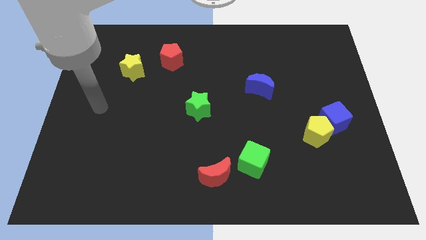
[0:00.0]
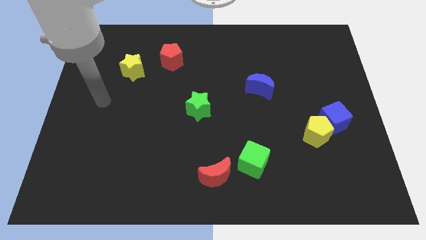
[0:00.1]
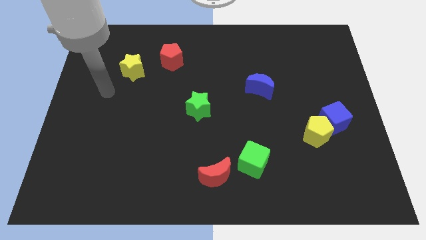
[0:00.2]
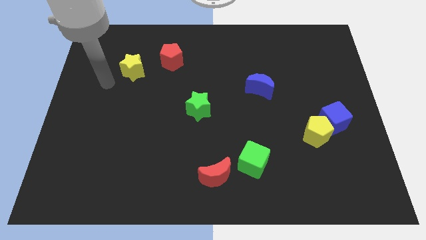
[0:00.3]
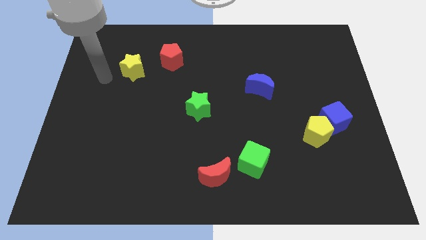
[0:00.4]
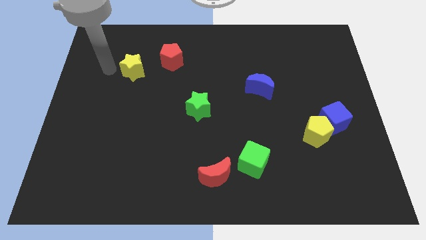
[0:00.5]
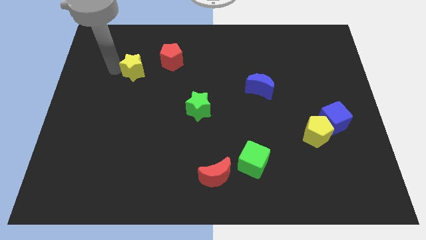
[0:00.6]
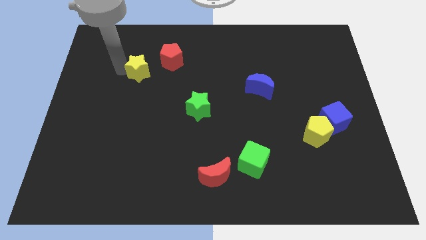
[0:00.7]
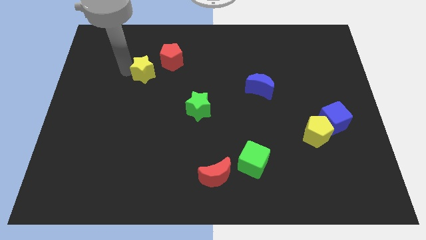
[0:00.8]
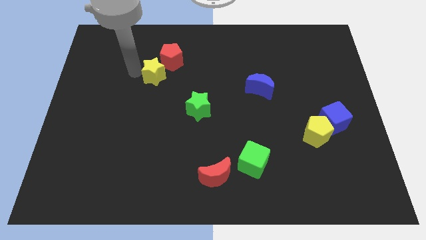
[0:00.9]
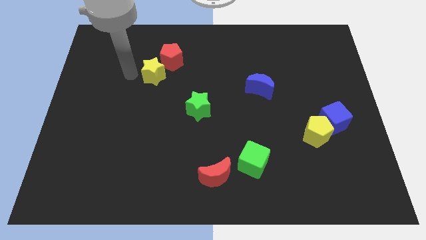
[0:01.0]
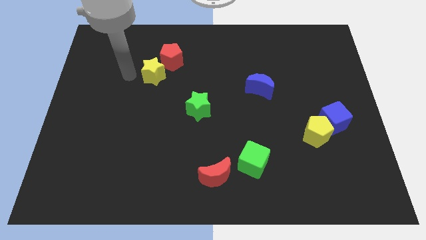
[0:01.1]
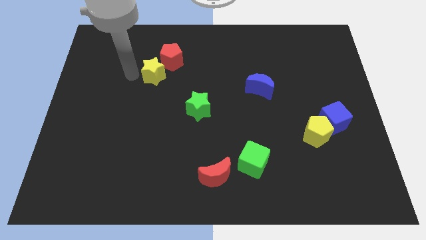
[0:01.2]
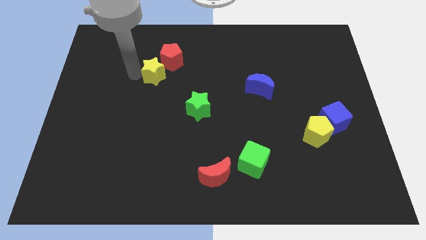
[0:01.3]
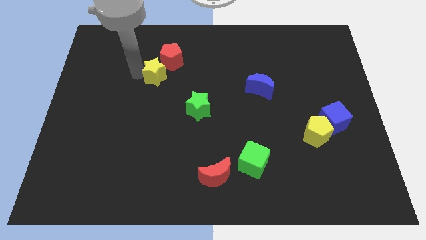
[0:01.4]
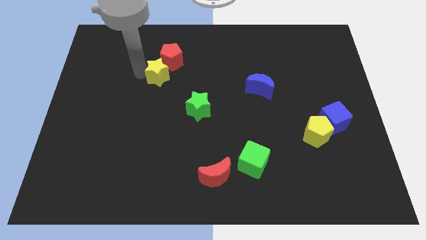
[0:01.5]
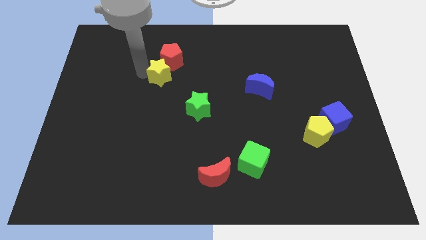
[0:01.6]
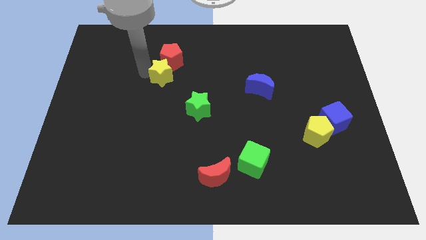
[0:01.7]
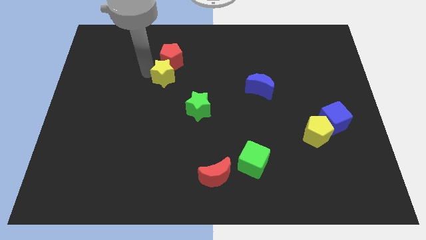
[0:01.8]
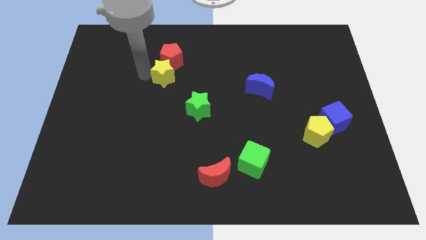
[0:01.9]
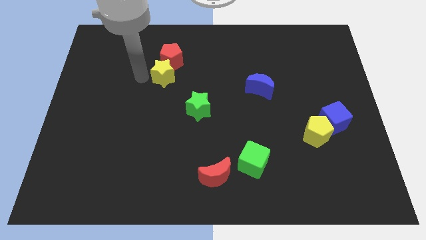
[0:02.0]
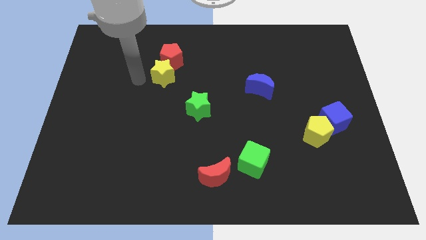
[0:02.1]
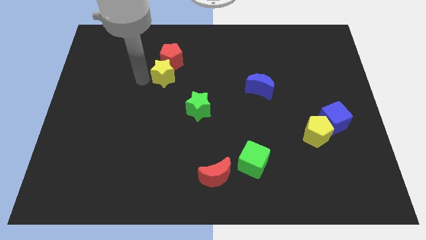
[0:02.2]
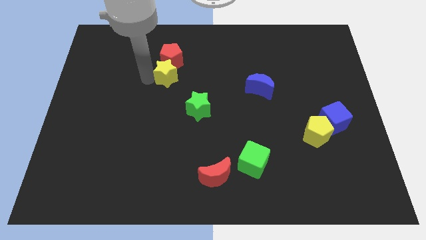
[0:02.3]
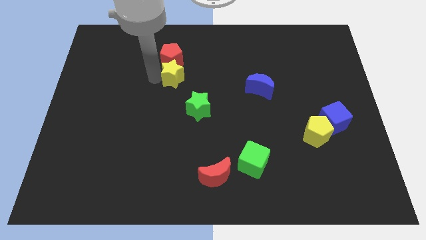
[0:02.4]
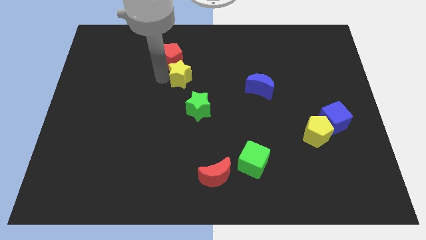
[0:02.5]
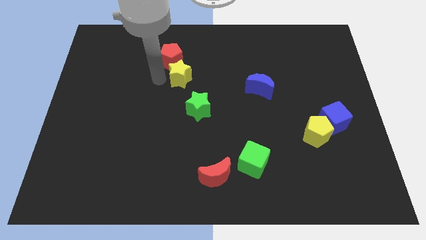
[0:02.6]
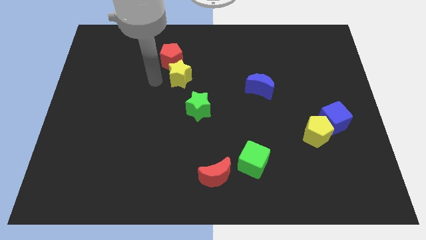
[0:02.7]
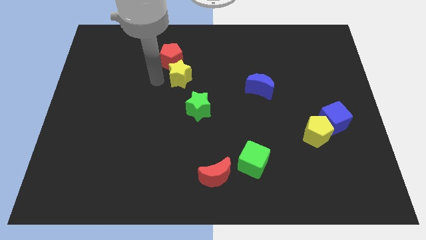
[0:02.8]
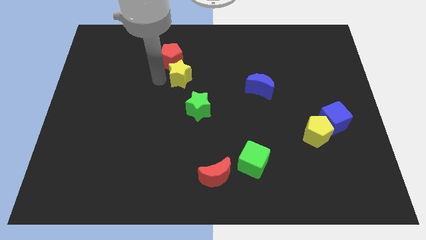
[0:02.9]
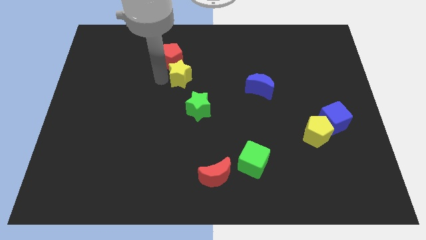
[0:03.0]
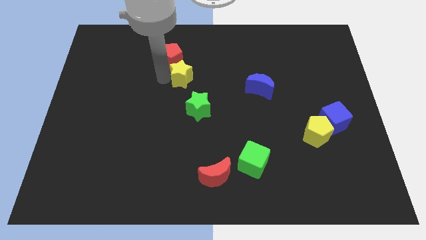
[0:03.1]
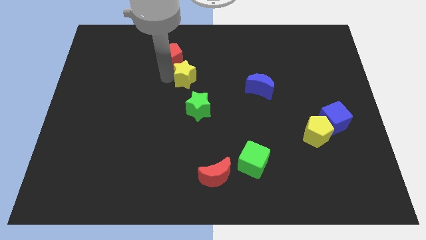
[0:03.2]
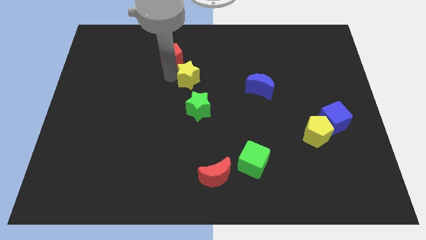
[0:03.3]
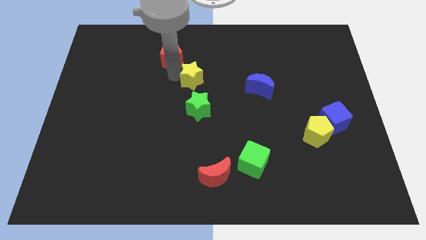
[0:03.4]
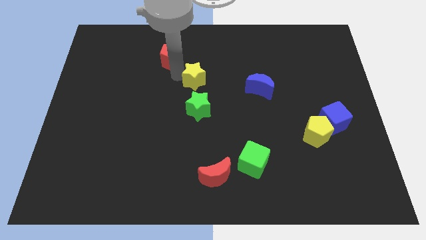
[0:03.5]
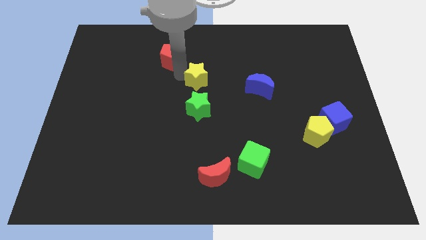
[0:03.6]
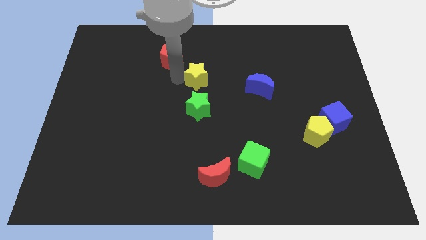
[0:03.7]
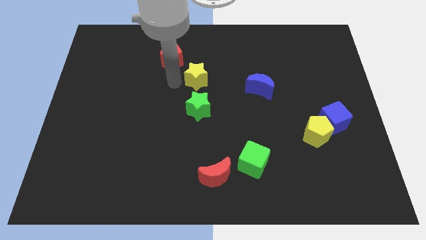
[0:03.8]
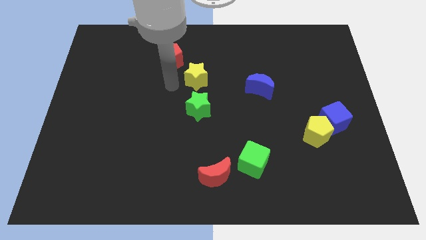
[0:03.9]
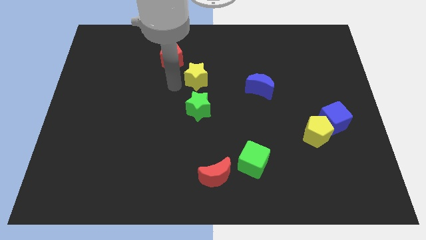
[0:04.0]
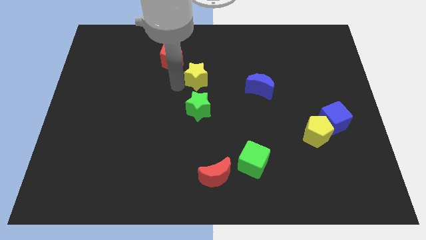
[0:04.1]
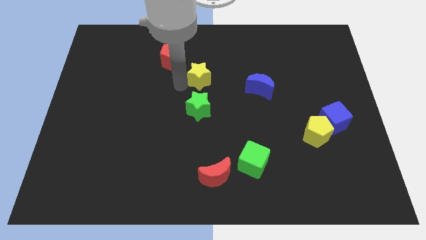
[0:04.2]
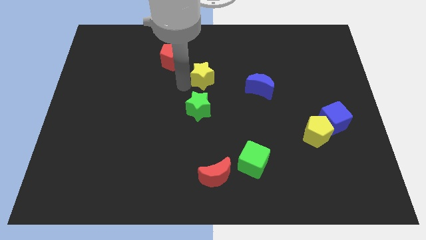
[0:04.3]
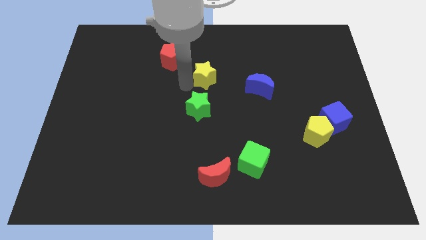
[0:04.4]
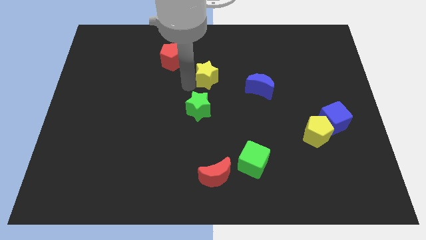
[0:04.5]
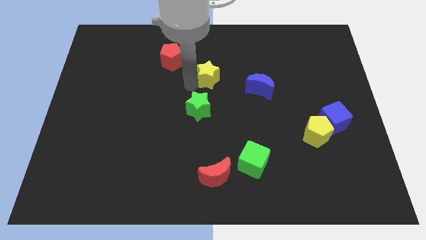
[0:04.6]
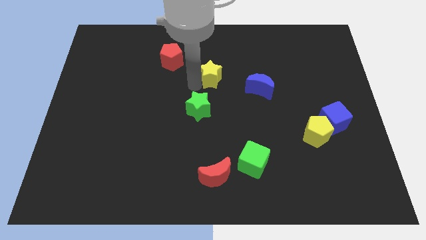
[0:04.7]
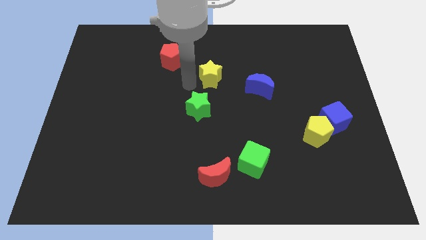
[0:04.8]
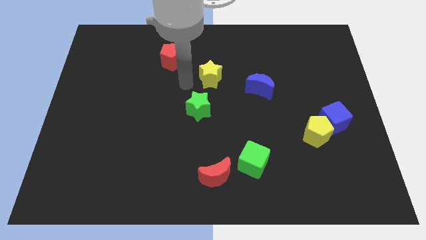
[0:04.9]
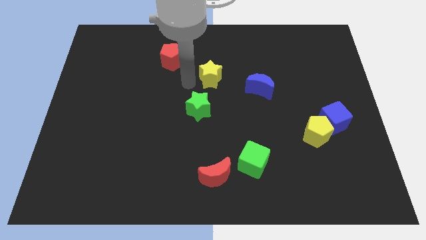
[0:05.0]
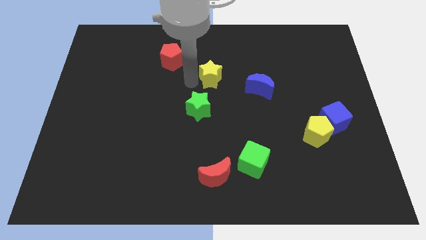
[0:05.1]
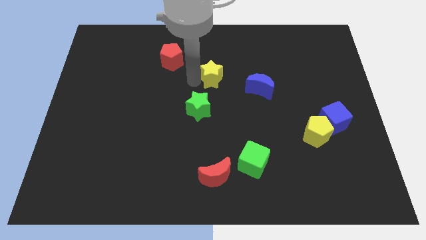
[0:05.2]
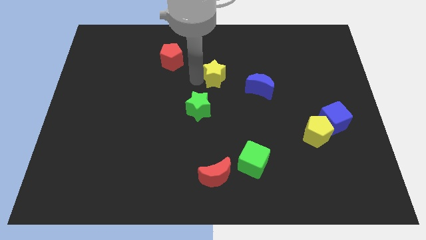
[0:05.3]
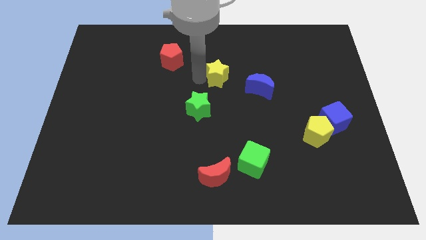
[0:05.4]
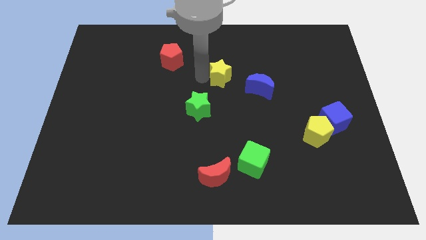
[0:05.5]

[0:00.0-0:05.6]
move the yellow star diagonally up and to the left of the blue moon

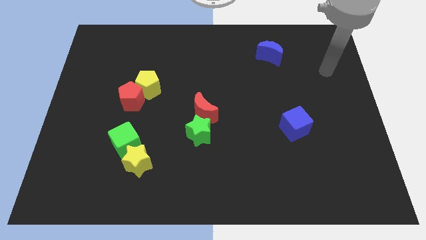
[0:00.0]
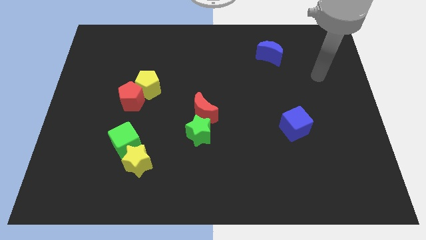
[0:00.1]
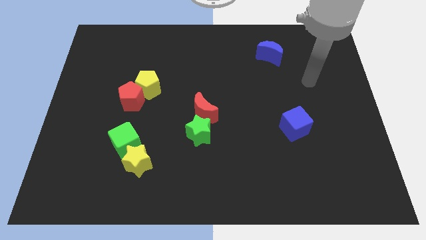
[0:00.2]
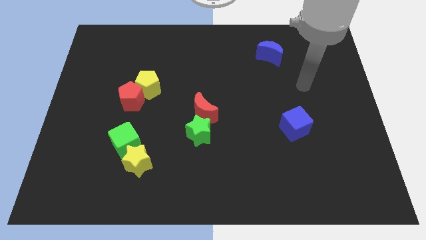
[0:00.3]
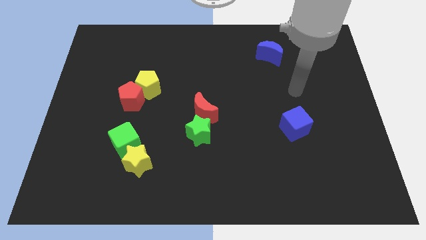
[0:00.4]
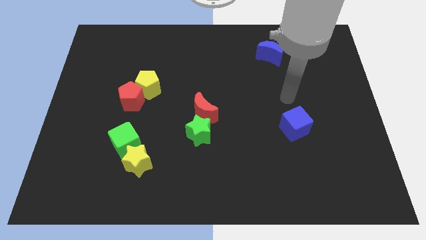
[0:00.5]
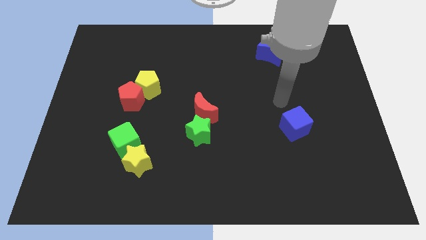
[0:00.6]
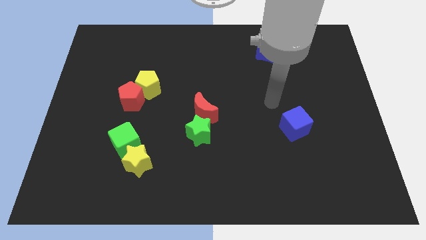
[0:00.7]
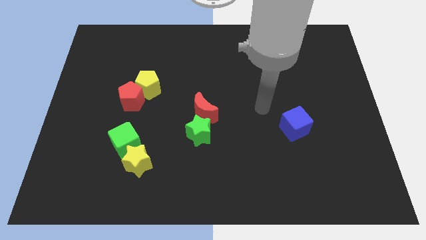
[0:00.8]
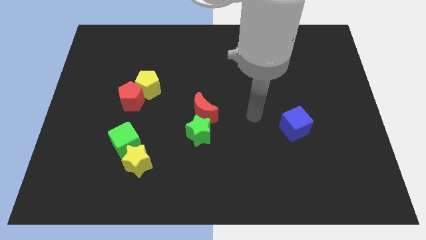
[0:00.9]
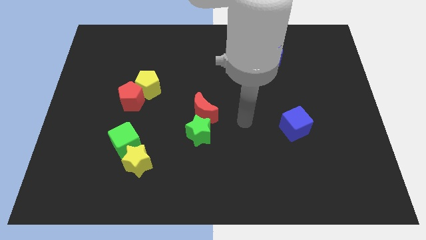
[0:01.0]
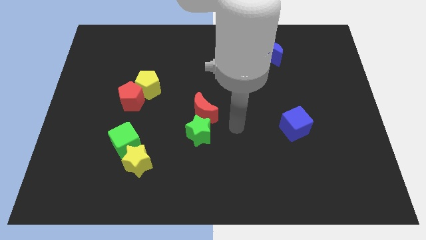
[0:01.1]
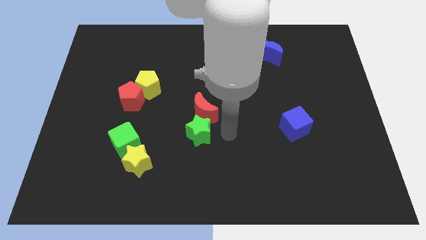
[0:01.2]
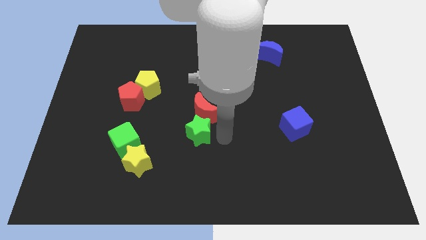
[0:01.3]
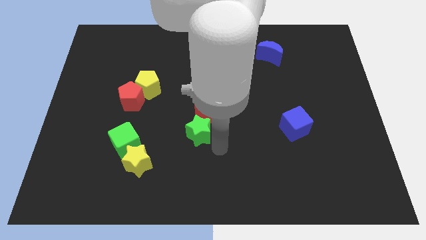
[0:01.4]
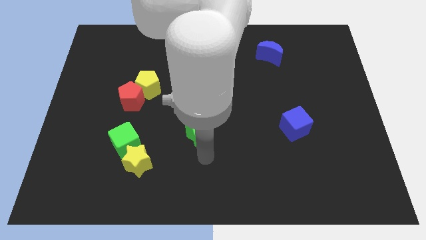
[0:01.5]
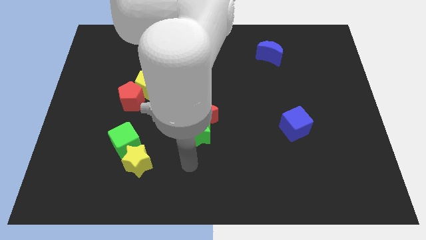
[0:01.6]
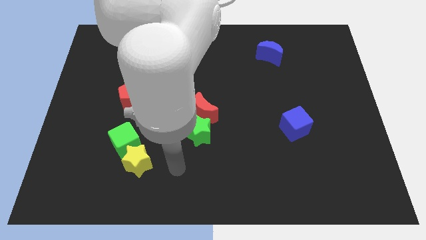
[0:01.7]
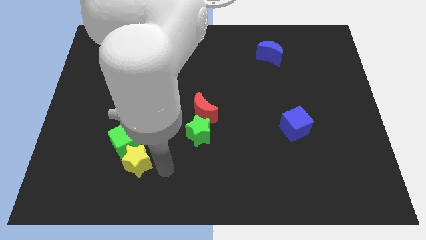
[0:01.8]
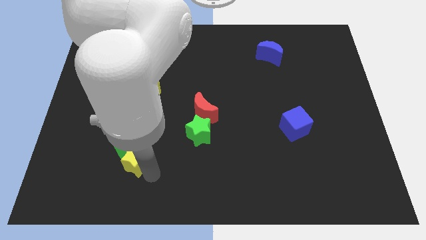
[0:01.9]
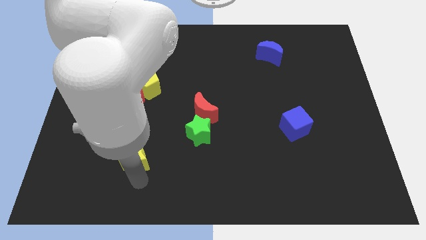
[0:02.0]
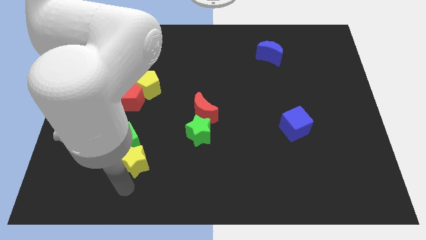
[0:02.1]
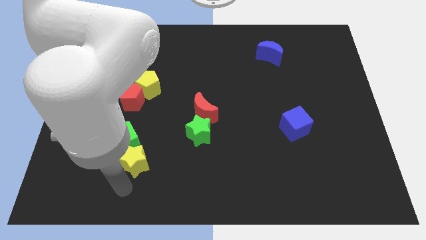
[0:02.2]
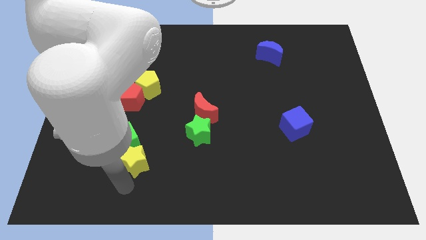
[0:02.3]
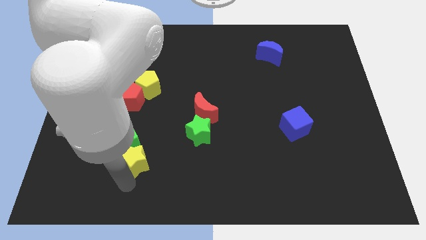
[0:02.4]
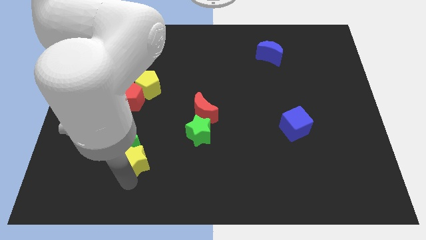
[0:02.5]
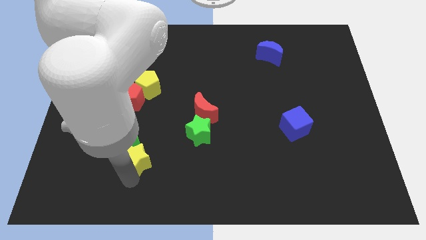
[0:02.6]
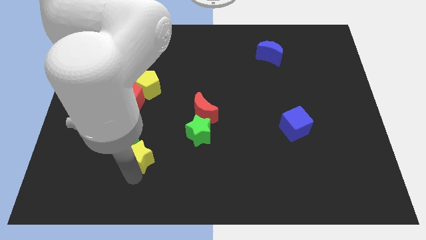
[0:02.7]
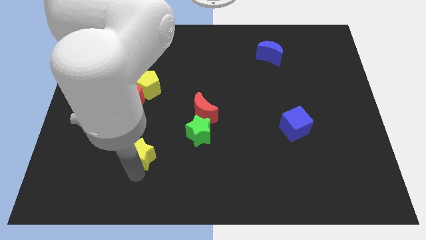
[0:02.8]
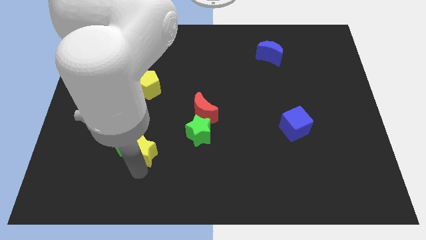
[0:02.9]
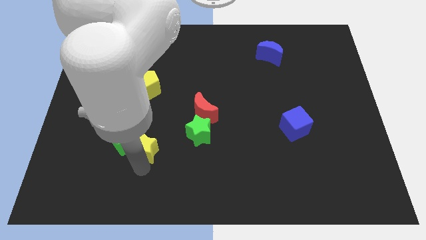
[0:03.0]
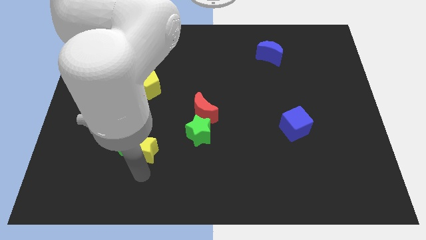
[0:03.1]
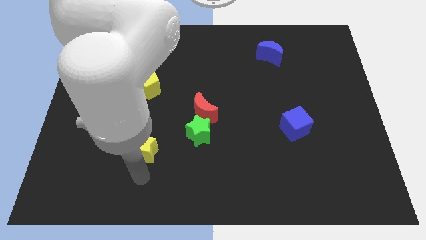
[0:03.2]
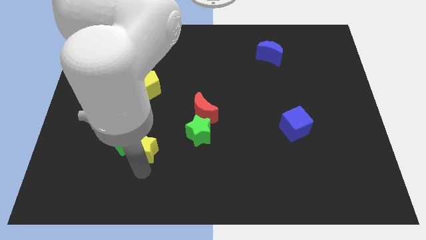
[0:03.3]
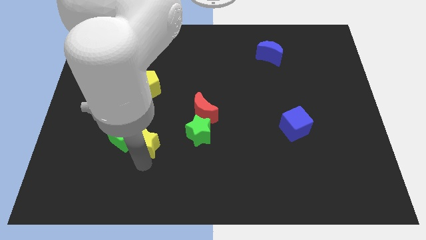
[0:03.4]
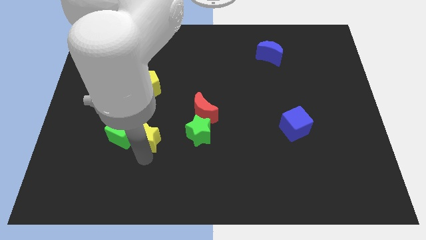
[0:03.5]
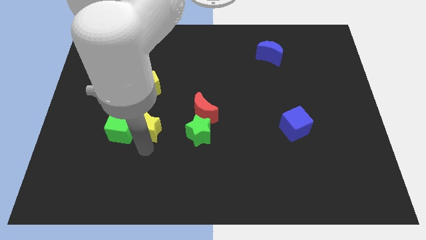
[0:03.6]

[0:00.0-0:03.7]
put the yellow star left of the red moon
